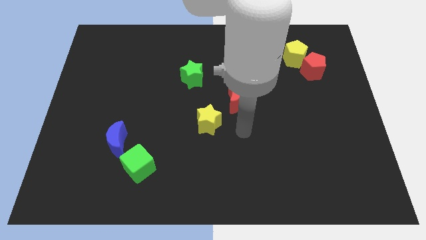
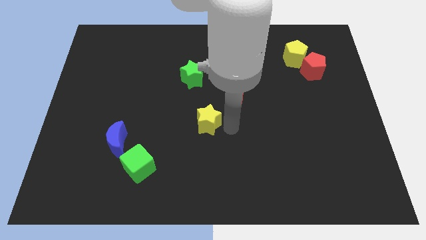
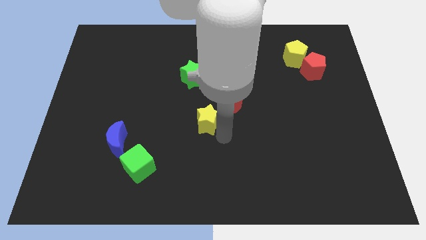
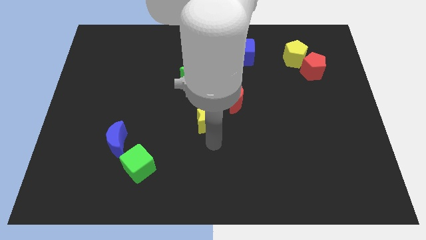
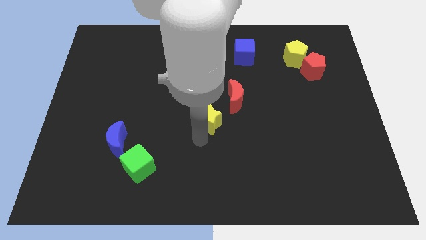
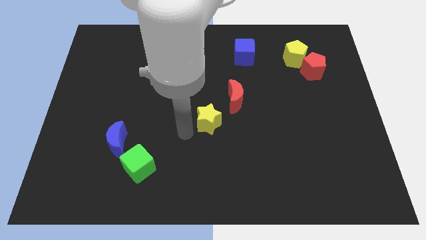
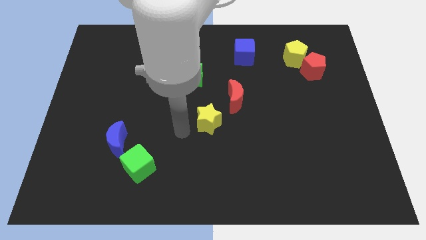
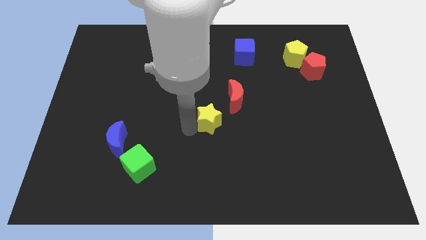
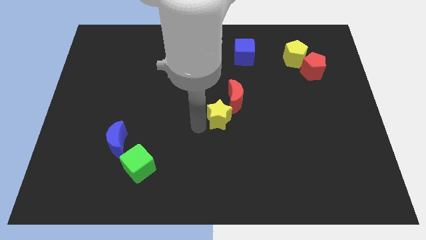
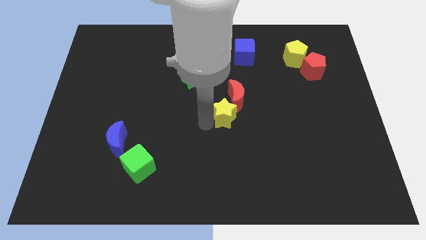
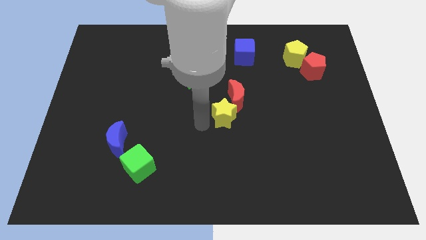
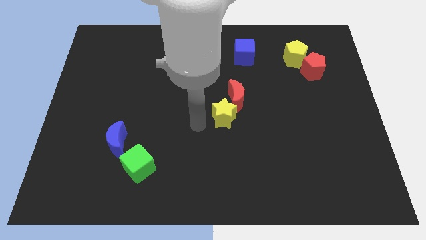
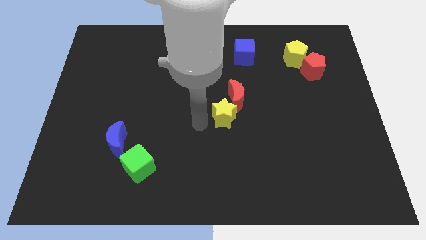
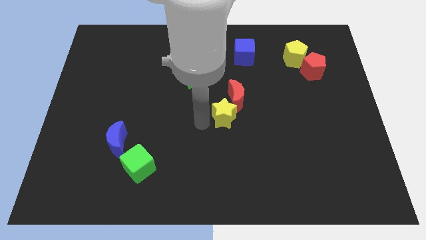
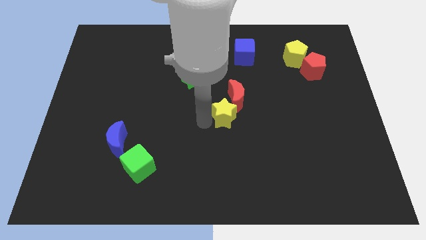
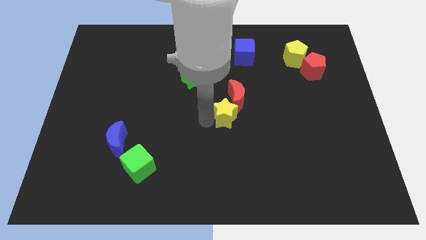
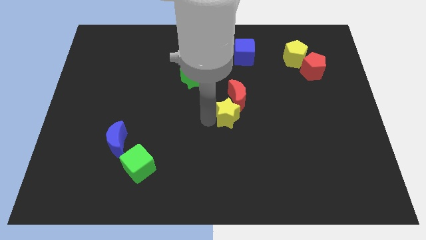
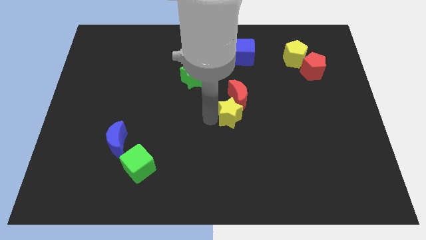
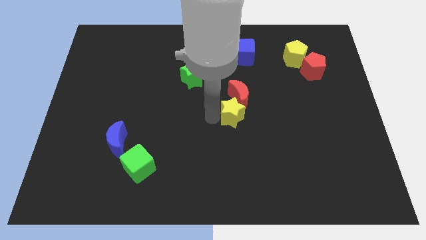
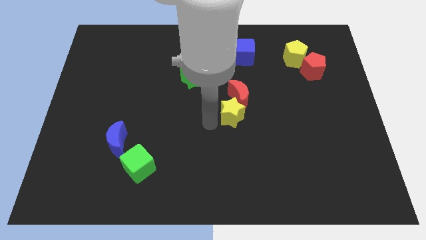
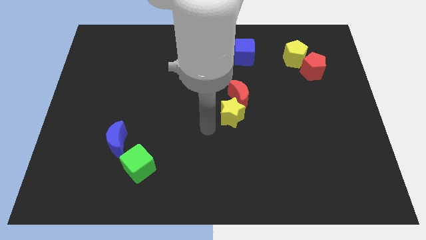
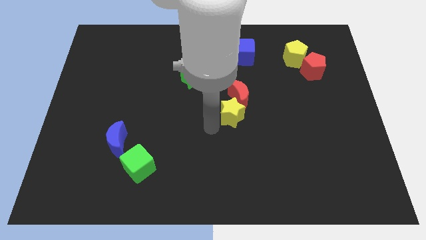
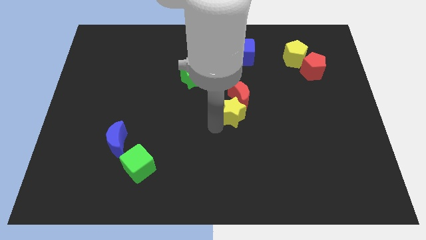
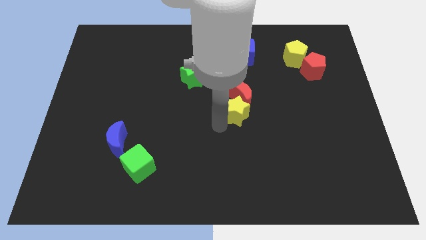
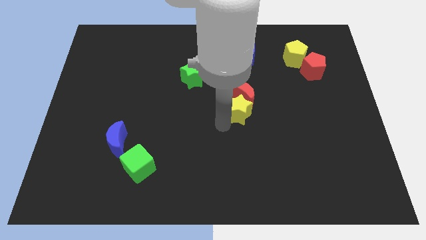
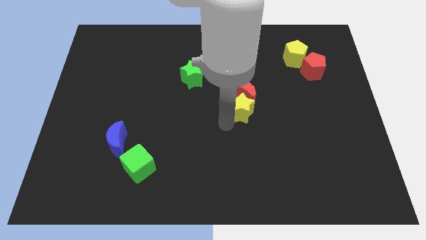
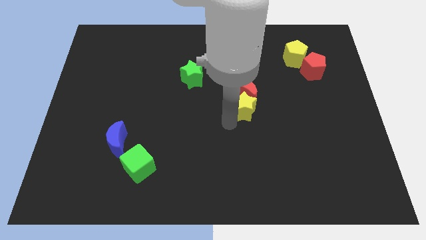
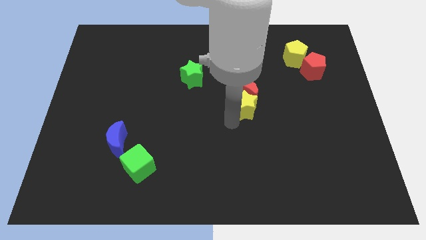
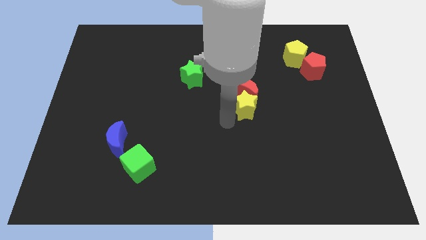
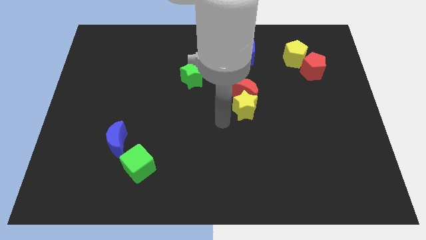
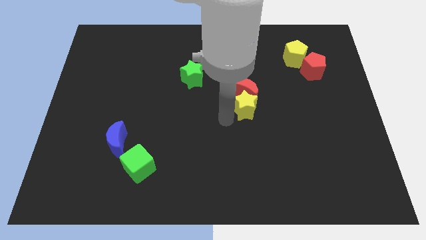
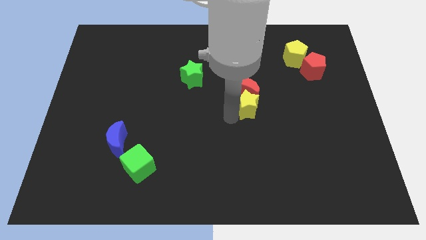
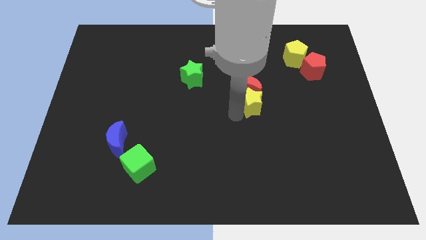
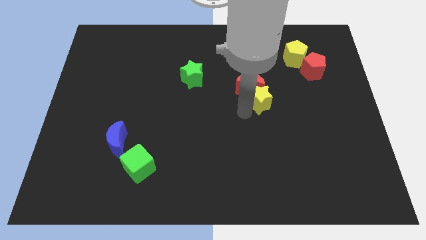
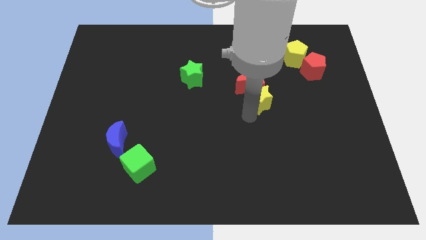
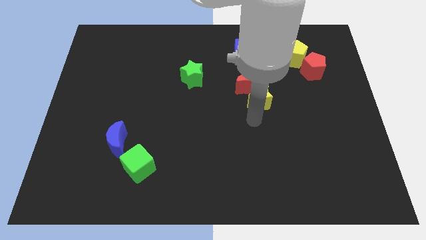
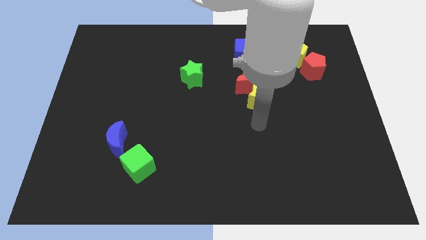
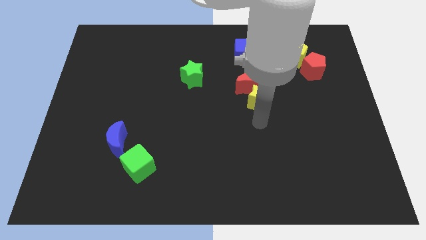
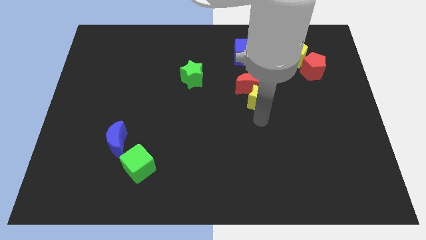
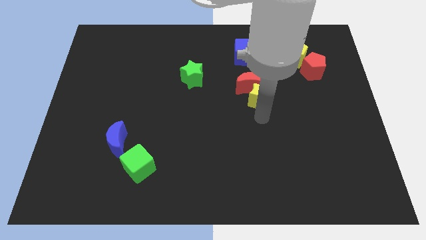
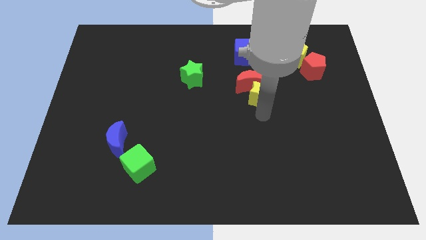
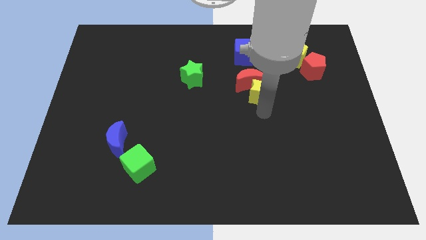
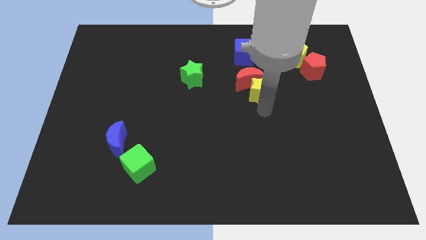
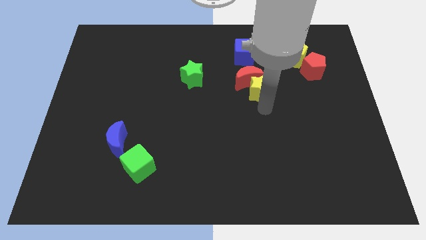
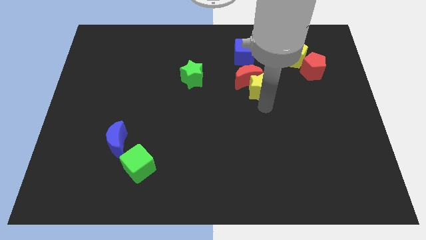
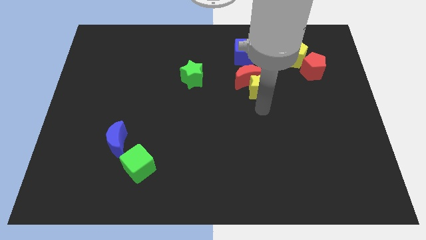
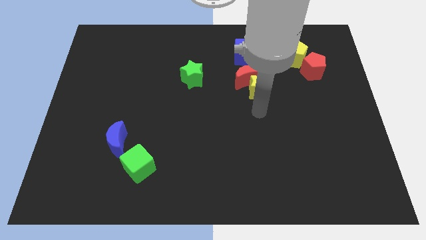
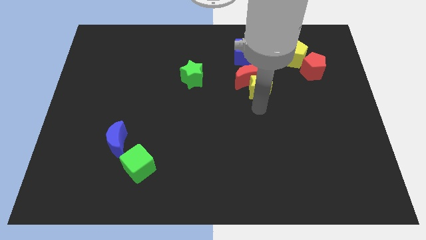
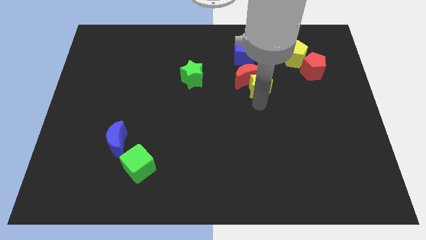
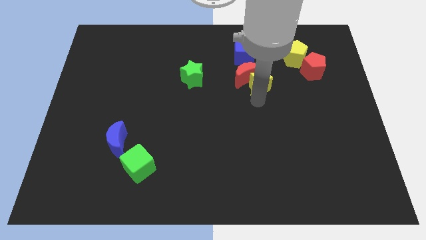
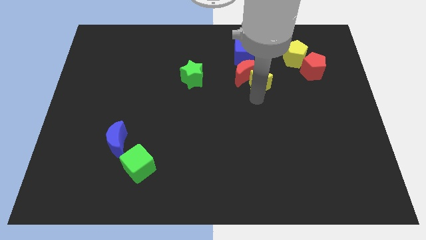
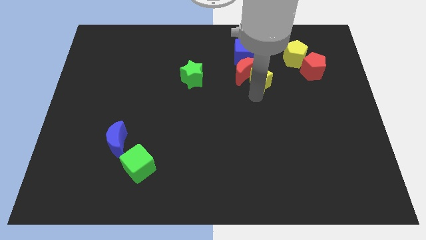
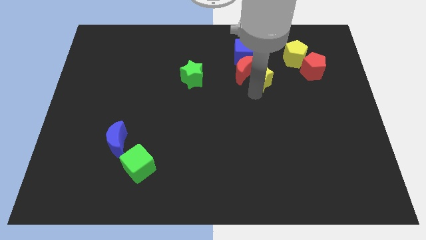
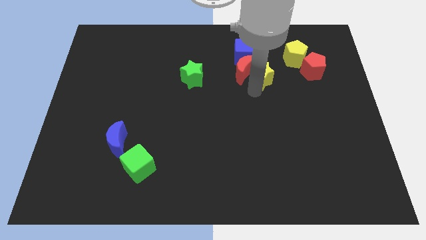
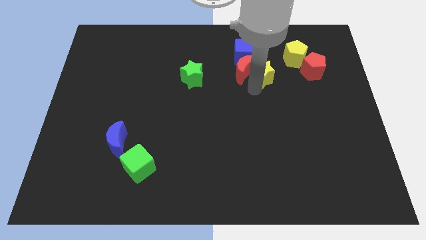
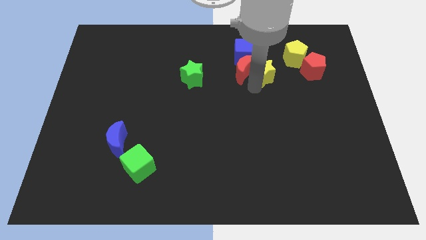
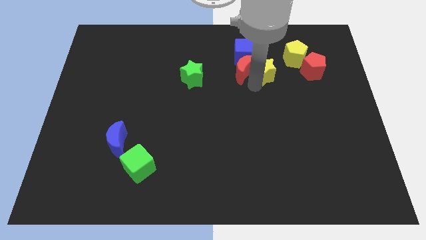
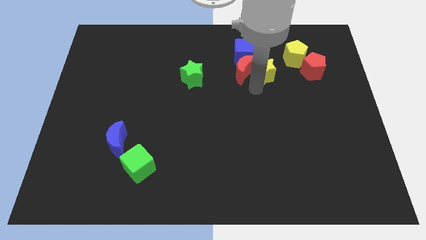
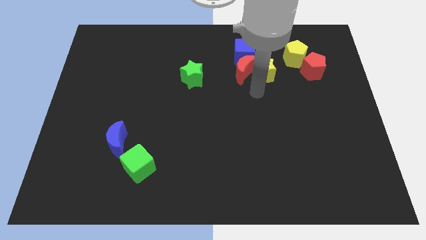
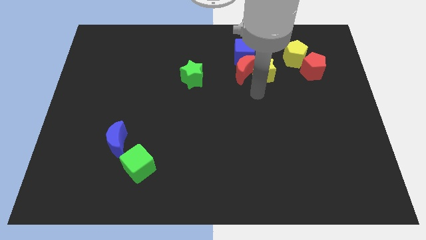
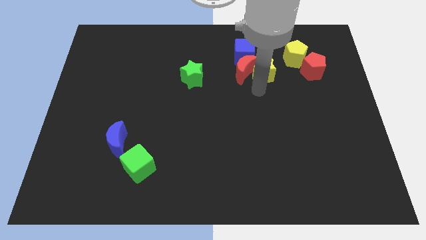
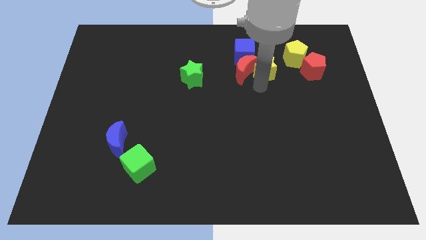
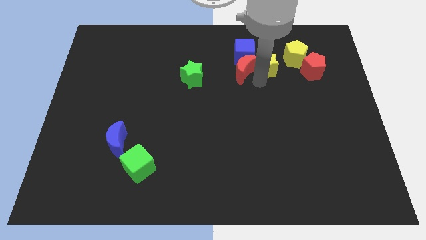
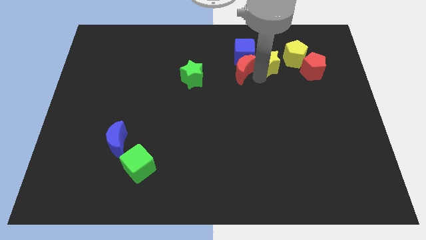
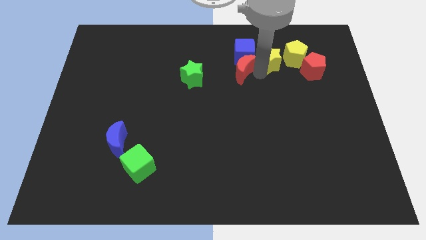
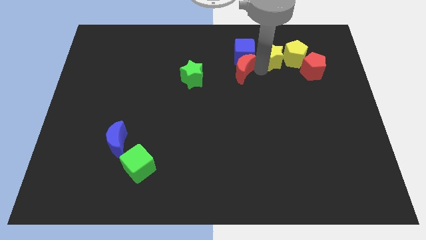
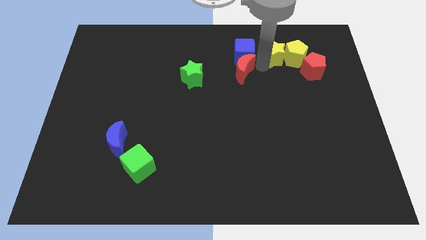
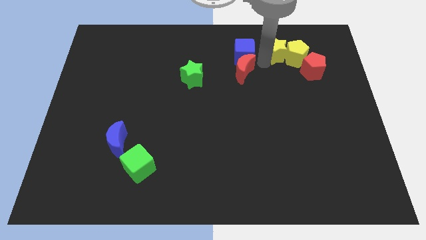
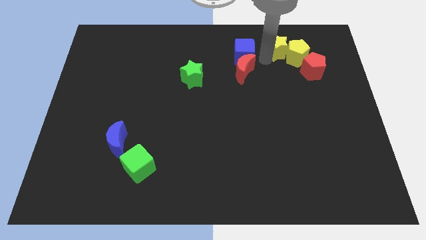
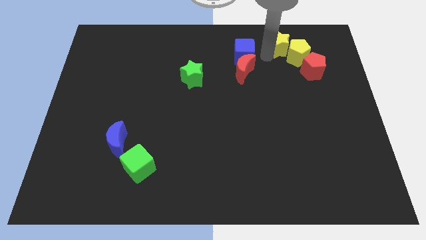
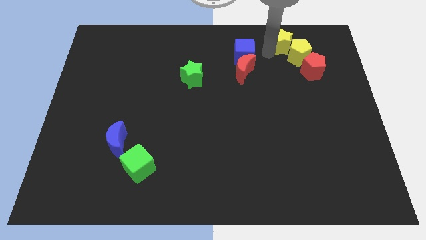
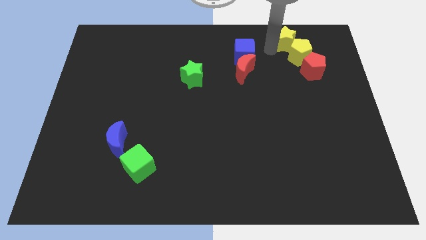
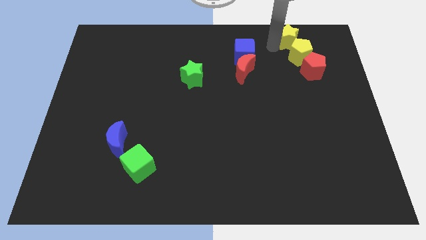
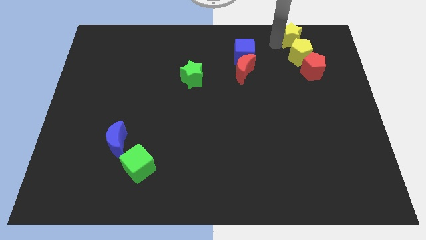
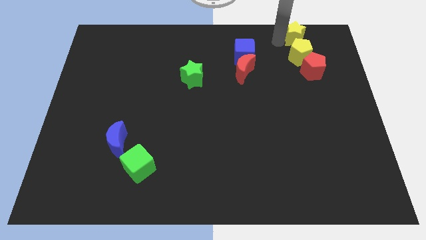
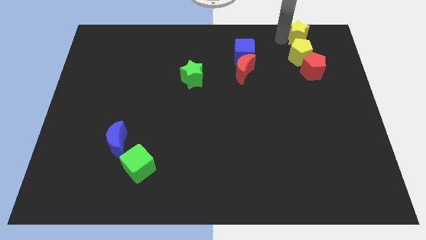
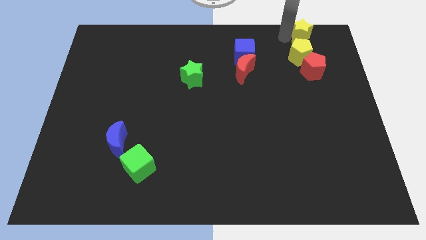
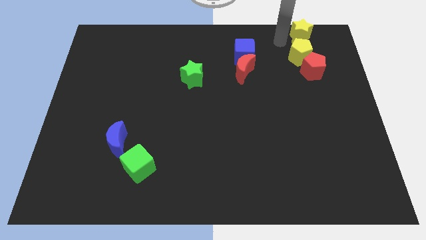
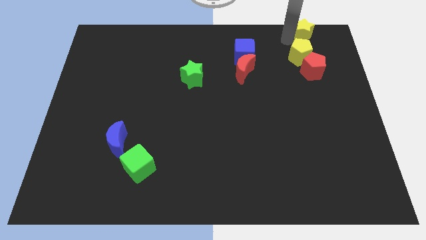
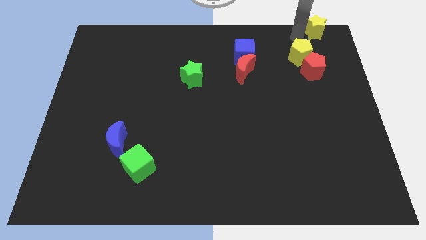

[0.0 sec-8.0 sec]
put the yellow star to the top right corner
